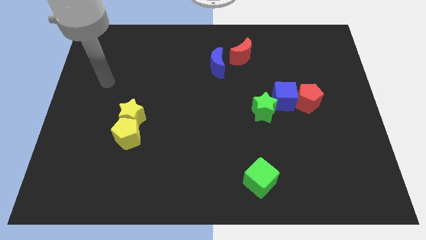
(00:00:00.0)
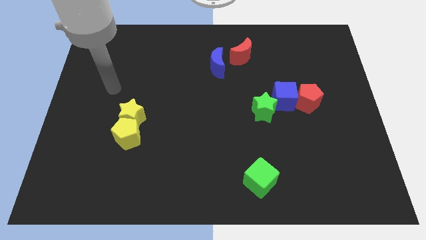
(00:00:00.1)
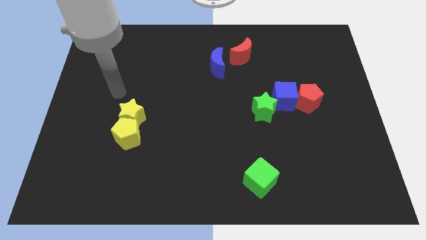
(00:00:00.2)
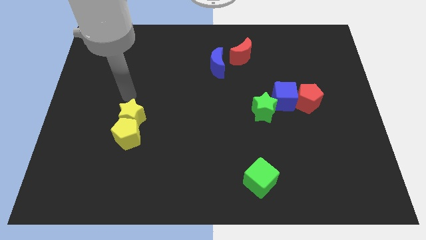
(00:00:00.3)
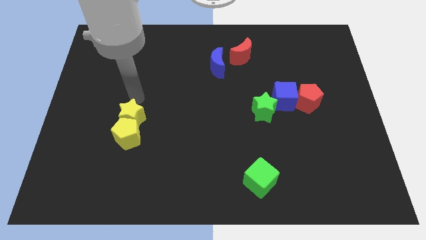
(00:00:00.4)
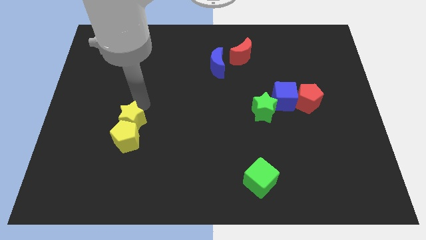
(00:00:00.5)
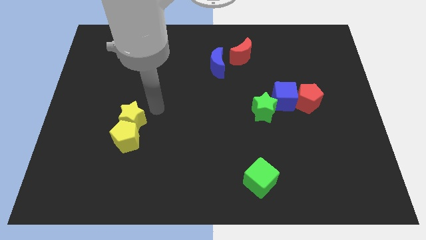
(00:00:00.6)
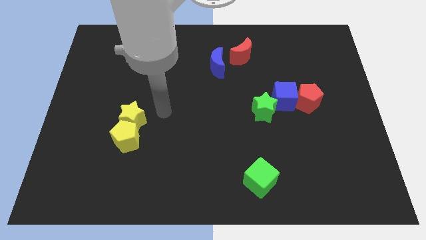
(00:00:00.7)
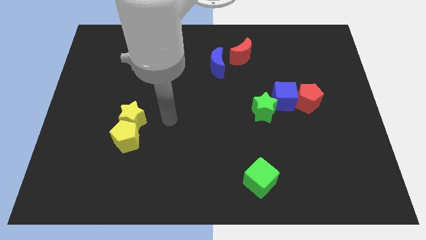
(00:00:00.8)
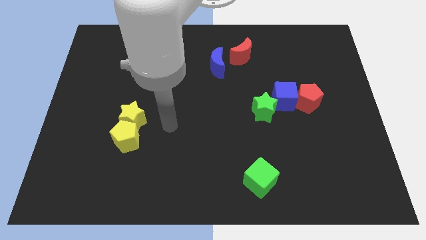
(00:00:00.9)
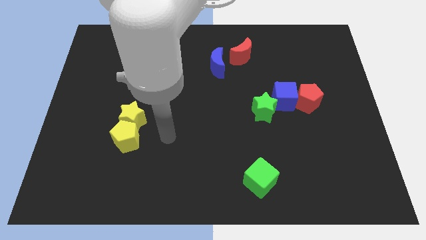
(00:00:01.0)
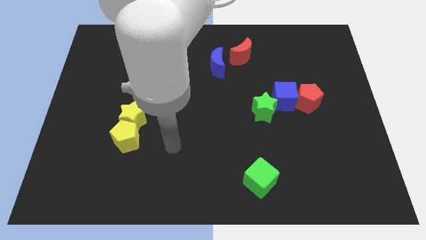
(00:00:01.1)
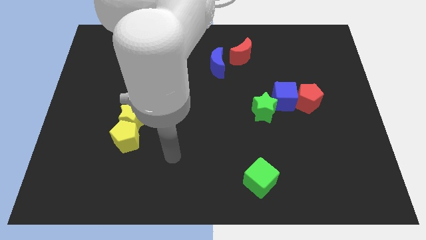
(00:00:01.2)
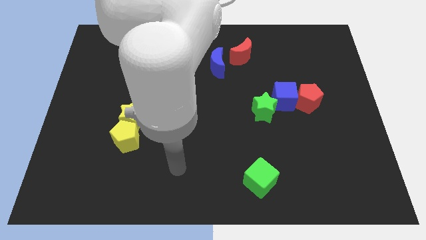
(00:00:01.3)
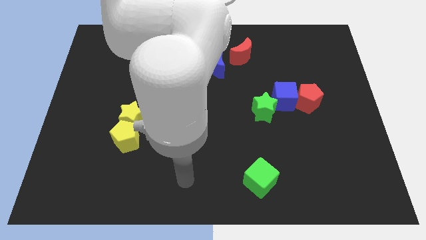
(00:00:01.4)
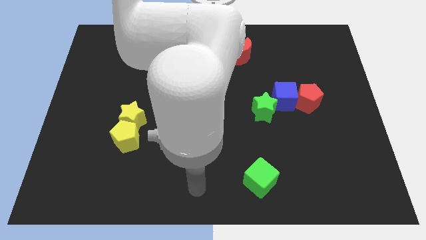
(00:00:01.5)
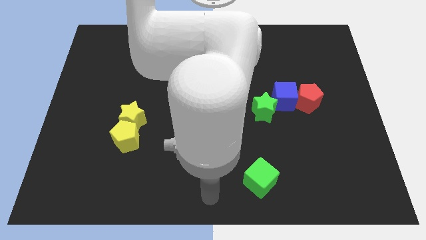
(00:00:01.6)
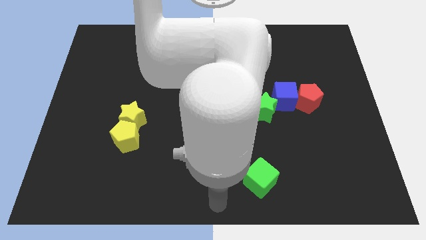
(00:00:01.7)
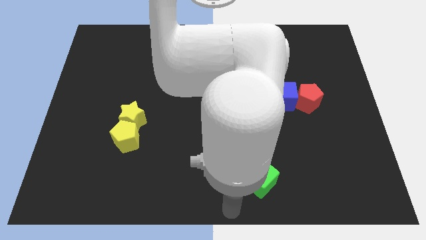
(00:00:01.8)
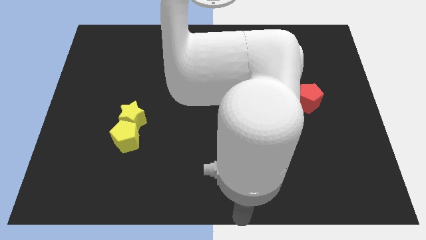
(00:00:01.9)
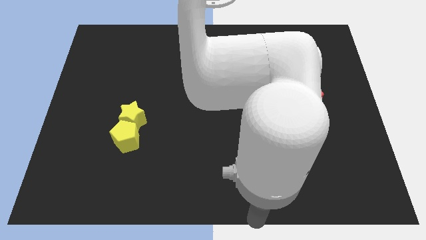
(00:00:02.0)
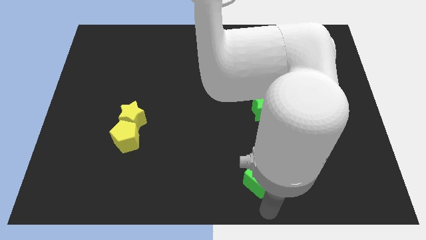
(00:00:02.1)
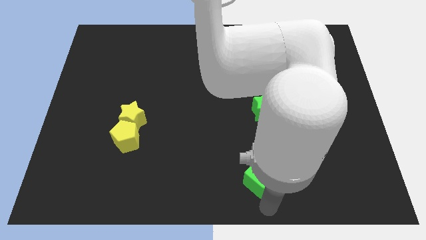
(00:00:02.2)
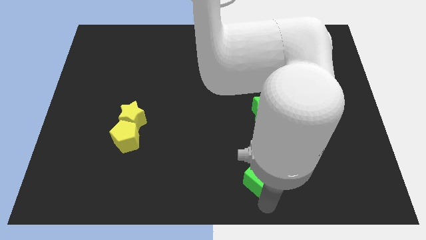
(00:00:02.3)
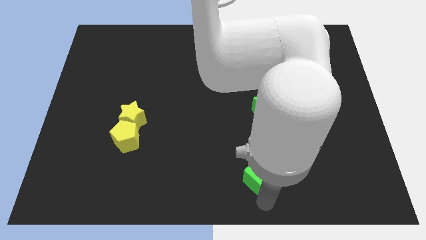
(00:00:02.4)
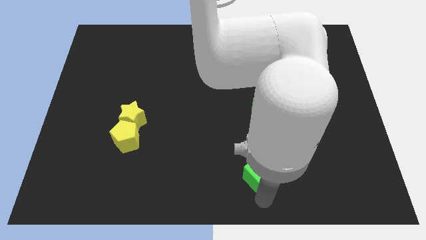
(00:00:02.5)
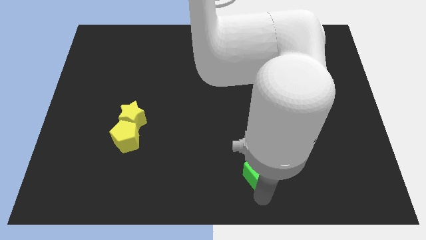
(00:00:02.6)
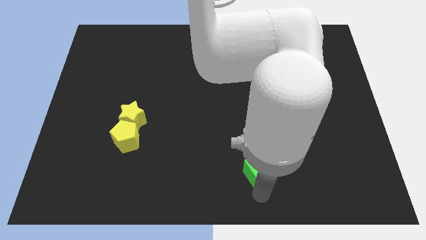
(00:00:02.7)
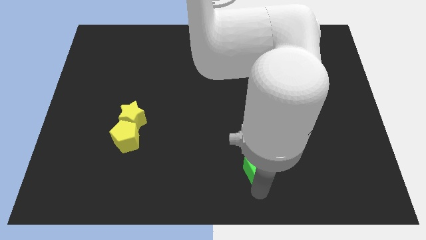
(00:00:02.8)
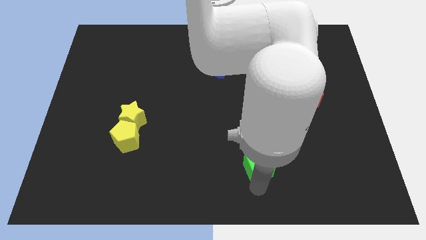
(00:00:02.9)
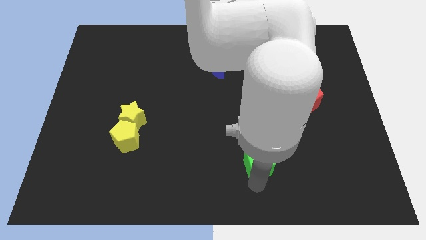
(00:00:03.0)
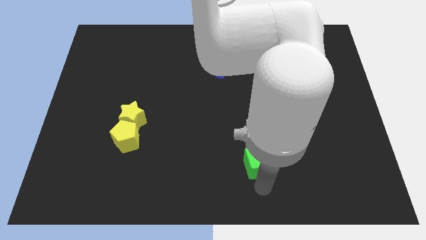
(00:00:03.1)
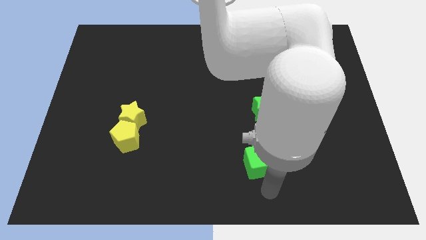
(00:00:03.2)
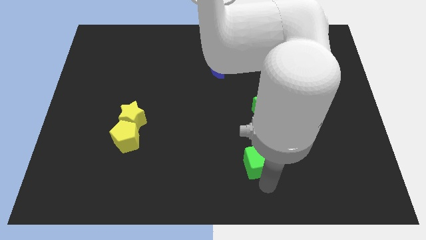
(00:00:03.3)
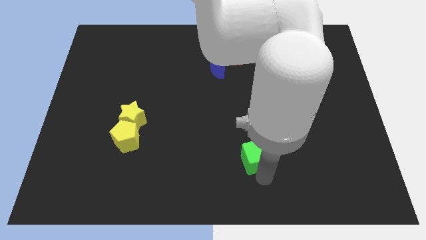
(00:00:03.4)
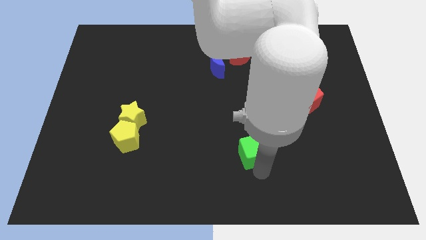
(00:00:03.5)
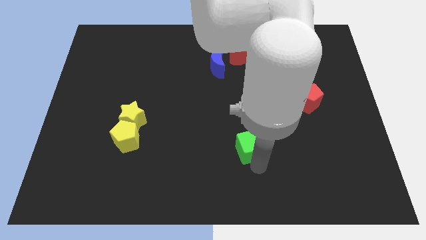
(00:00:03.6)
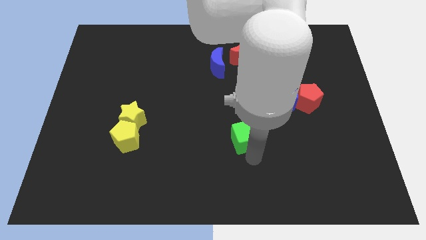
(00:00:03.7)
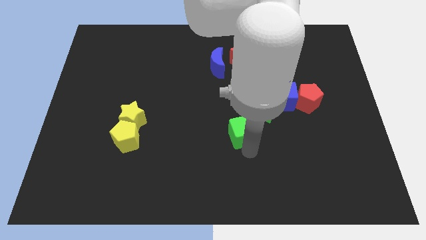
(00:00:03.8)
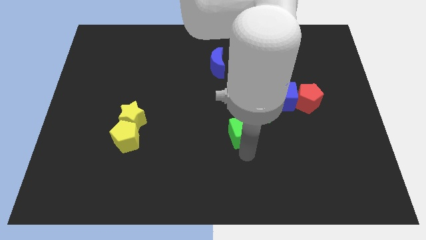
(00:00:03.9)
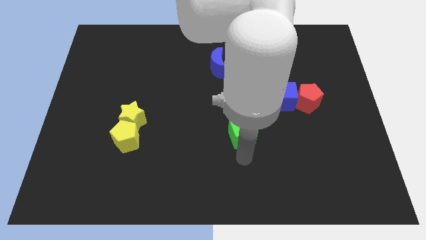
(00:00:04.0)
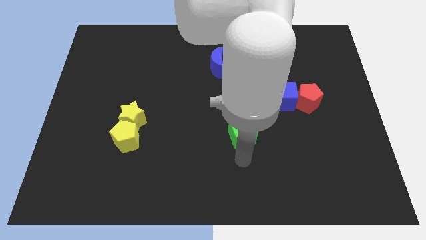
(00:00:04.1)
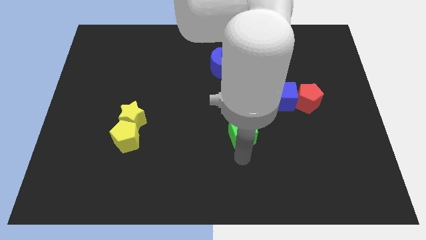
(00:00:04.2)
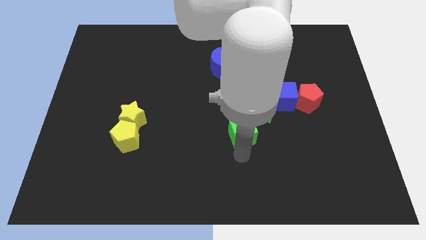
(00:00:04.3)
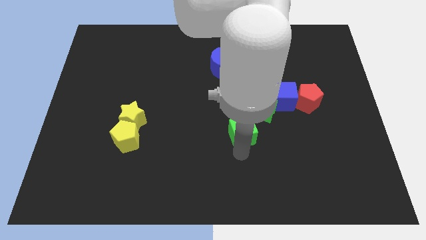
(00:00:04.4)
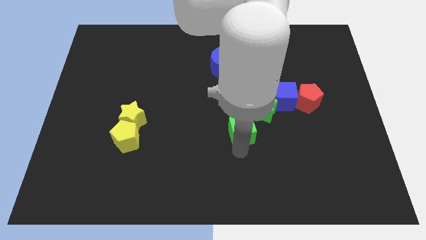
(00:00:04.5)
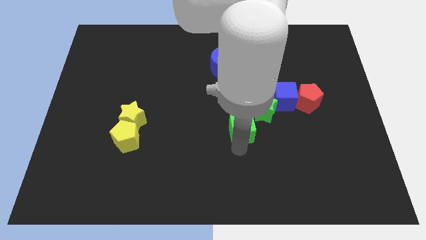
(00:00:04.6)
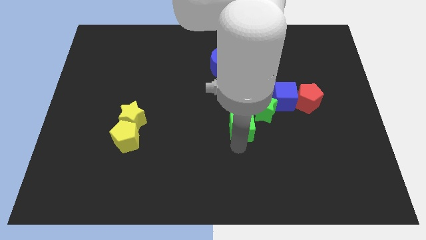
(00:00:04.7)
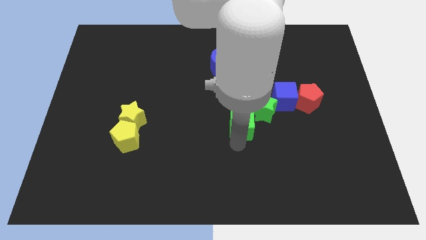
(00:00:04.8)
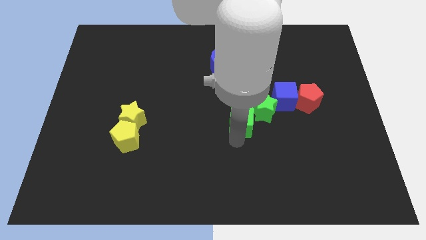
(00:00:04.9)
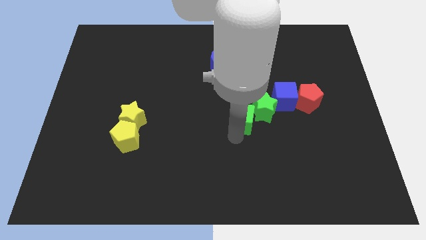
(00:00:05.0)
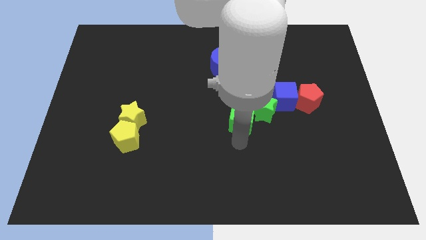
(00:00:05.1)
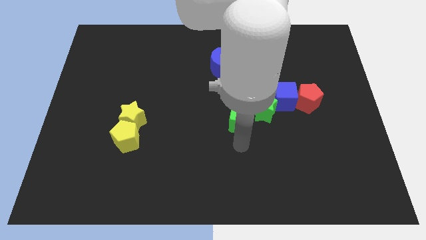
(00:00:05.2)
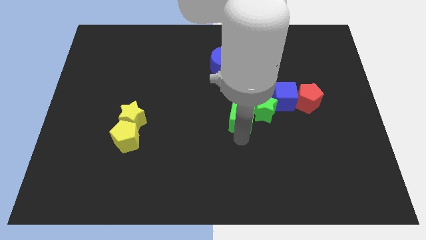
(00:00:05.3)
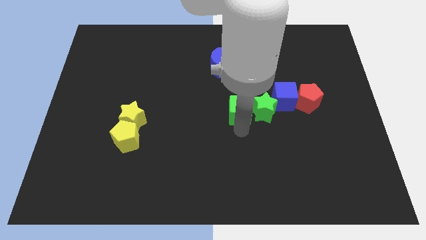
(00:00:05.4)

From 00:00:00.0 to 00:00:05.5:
put the green cube to the top left side of the green star
